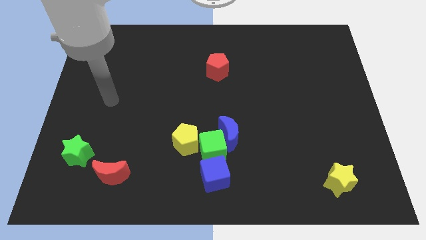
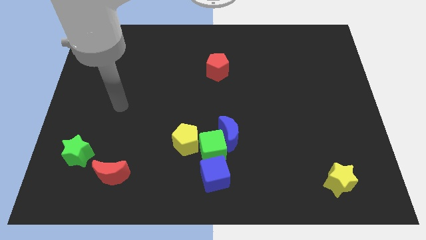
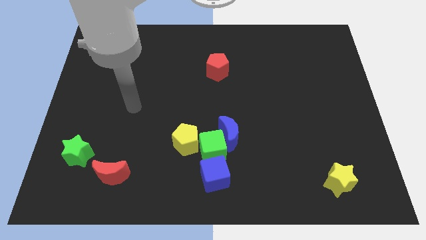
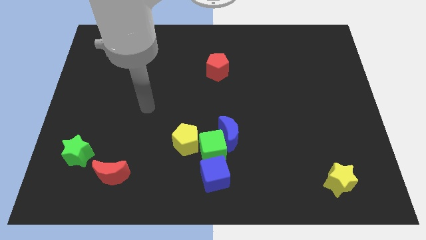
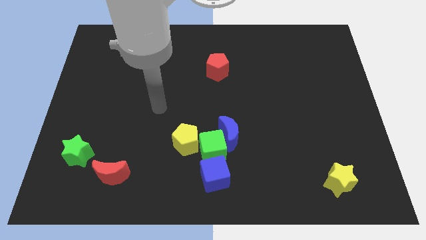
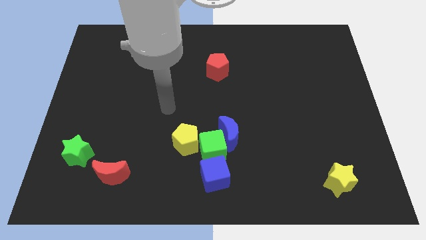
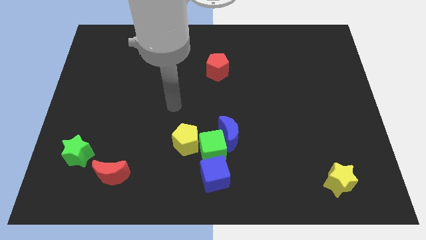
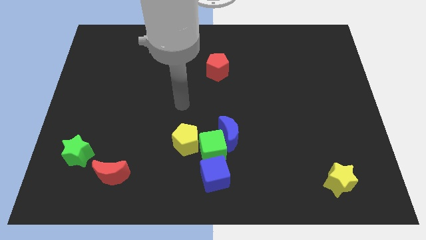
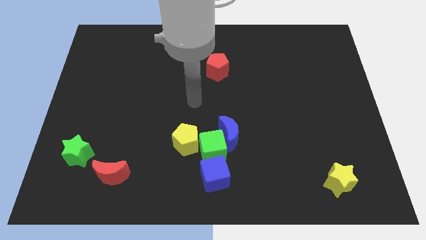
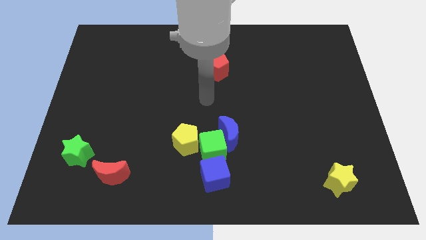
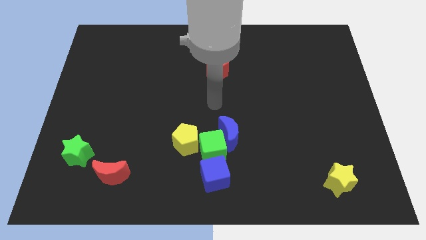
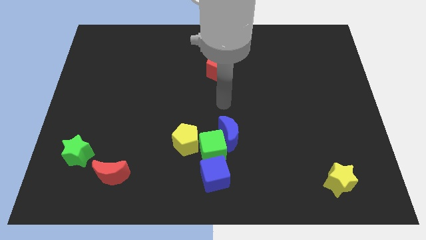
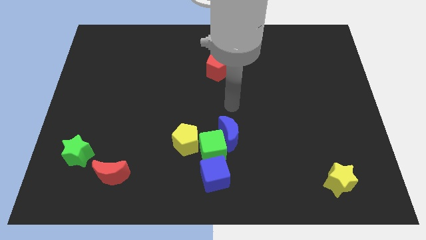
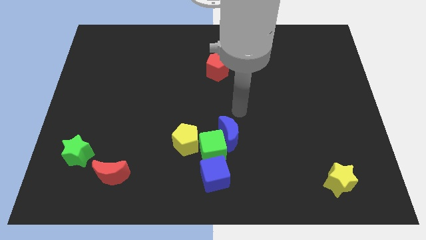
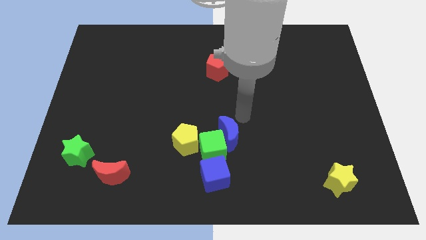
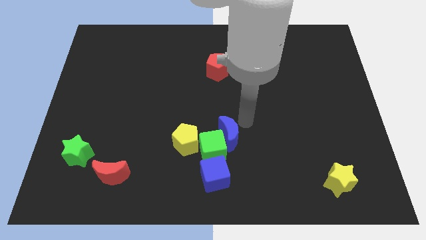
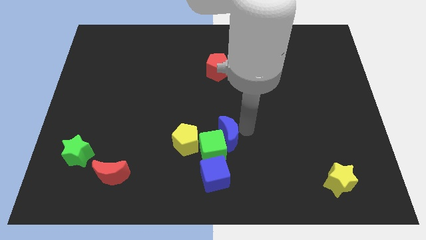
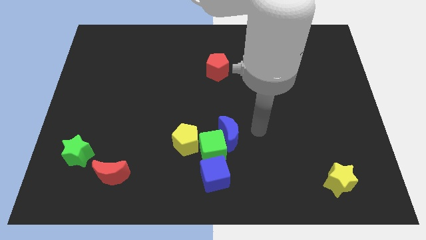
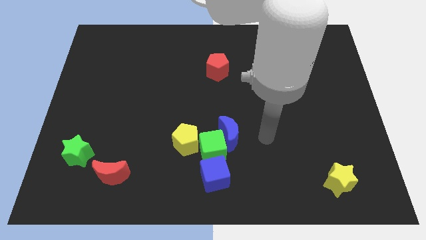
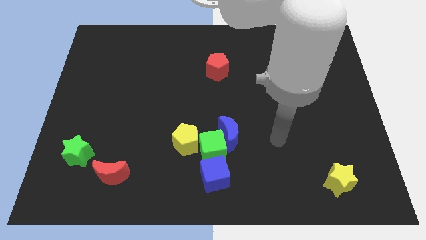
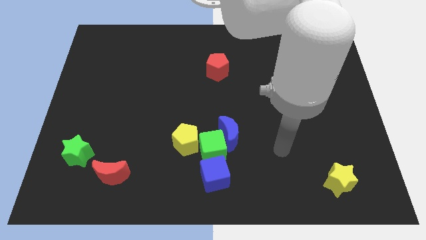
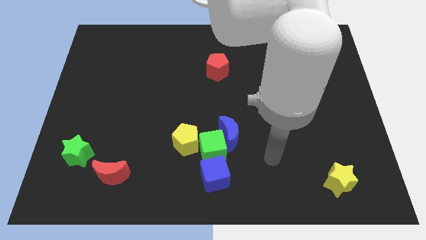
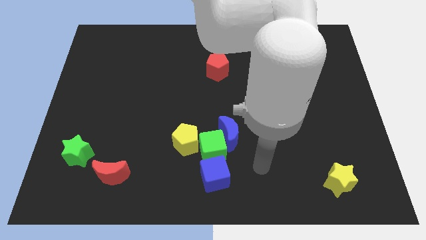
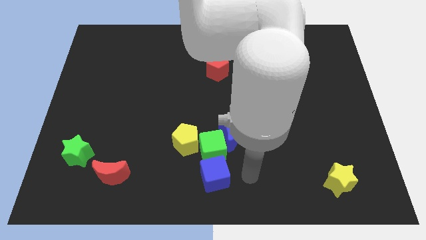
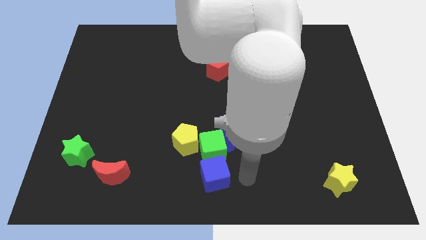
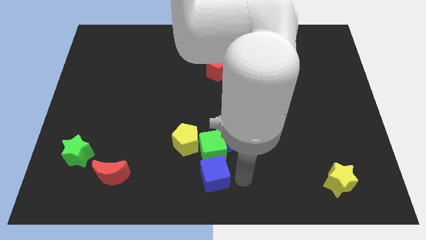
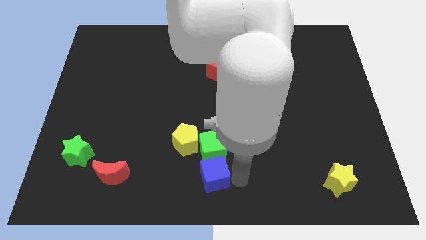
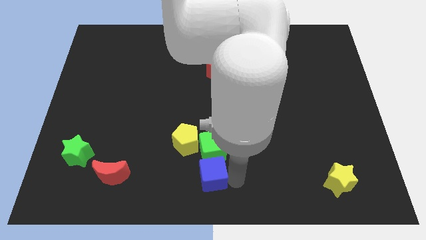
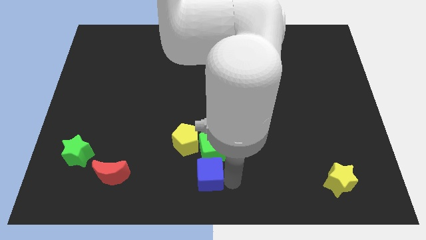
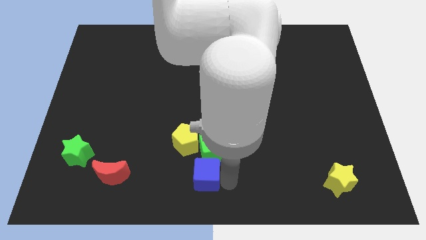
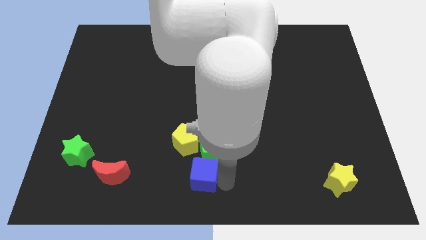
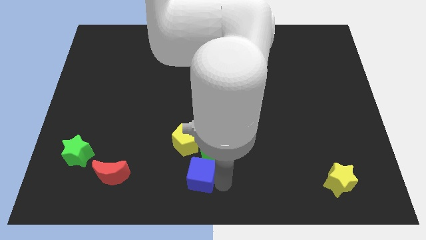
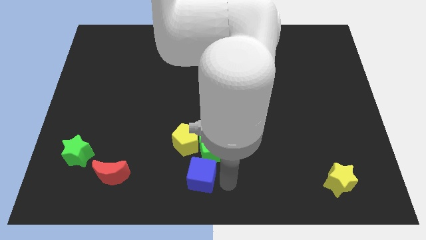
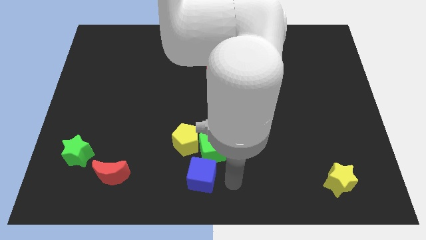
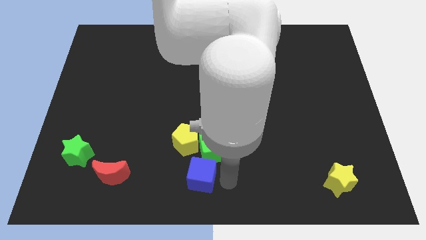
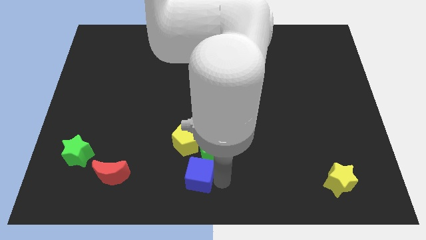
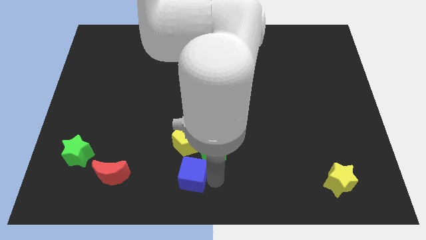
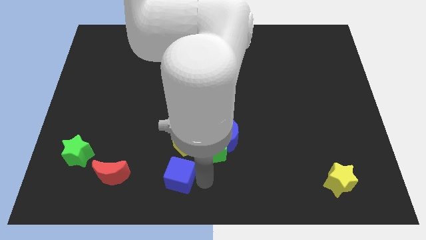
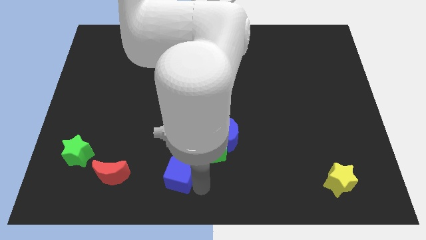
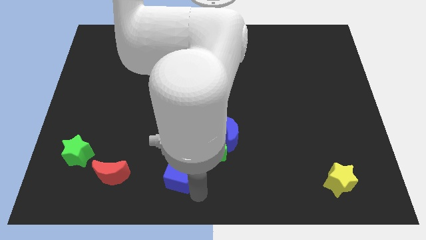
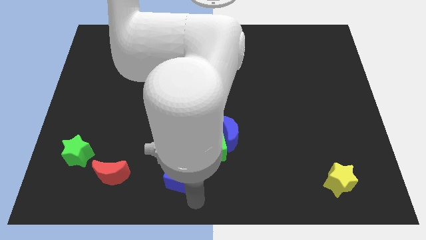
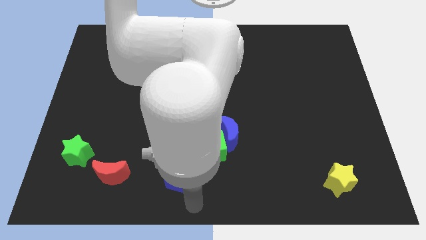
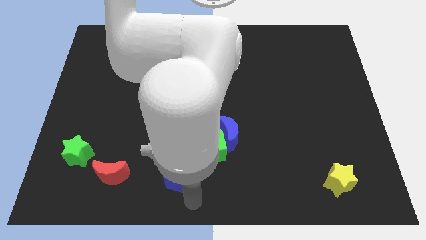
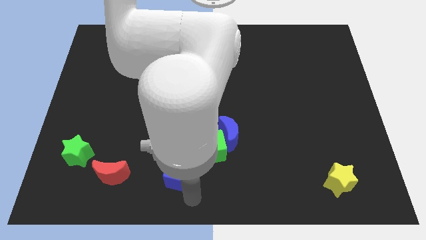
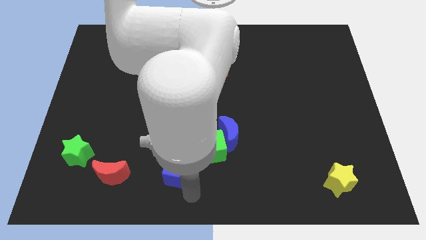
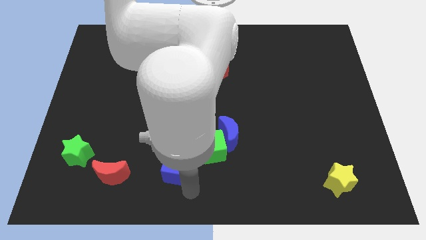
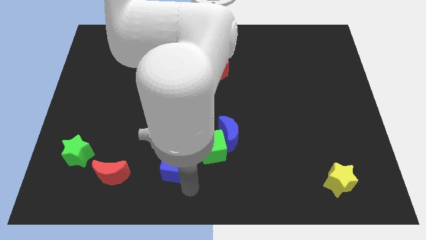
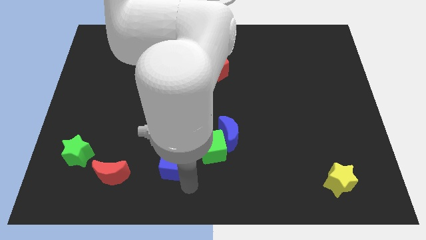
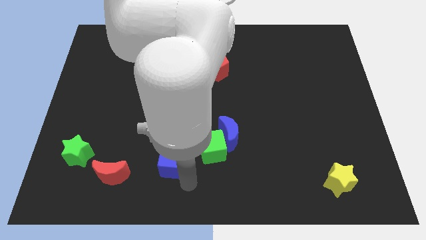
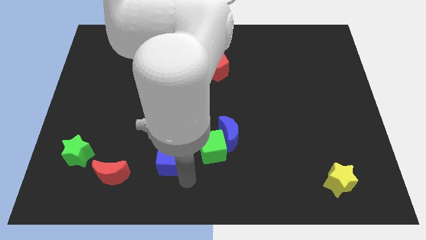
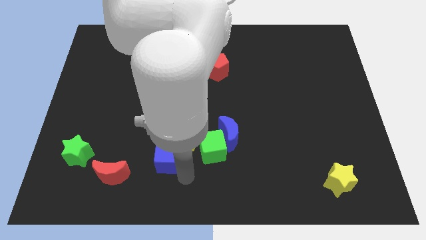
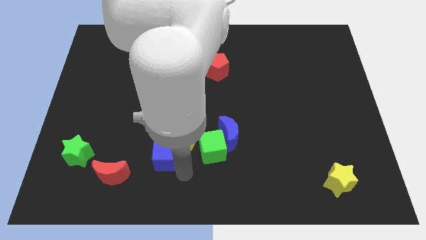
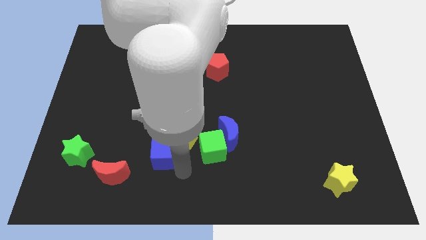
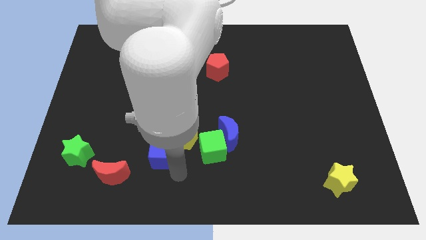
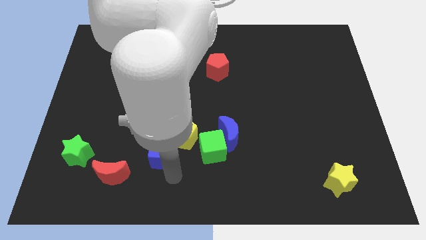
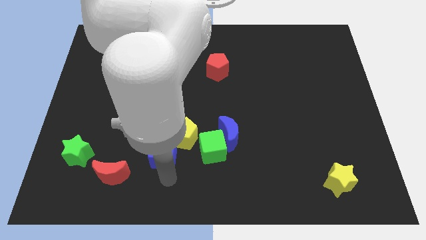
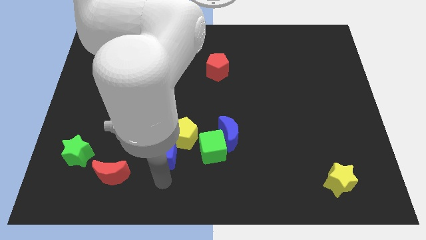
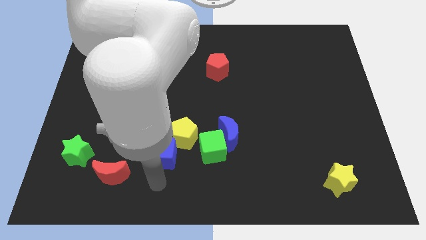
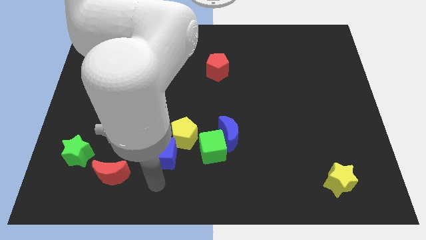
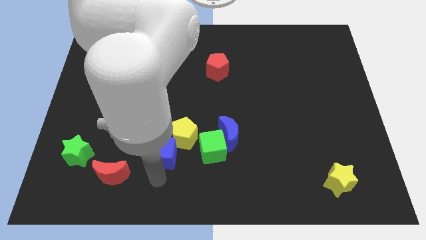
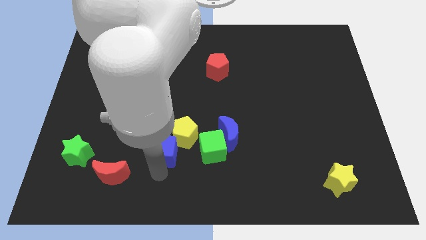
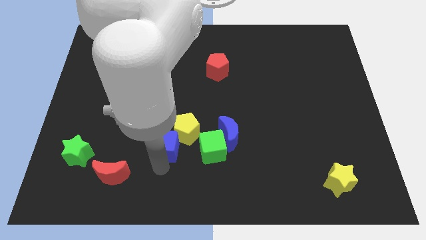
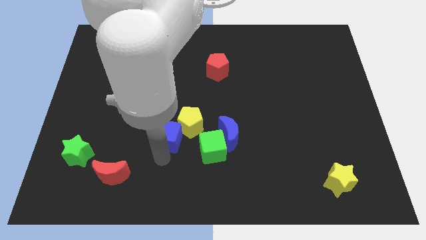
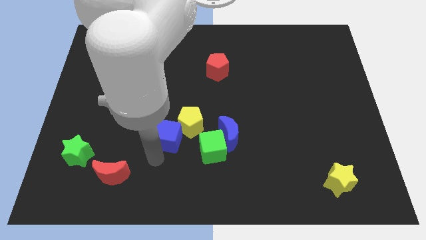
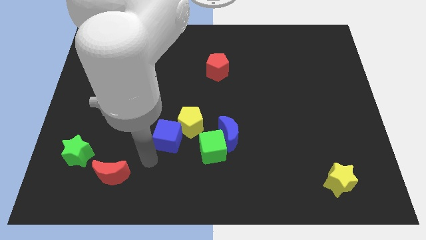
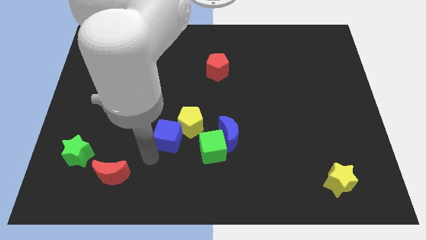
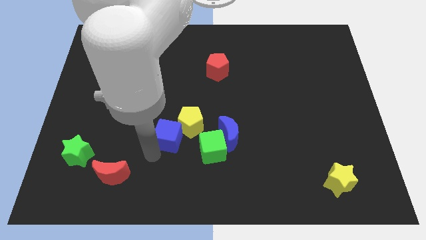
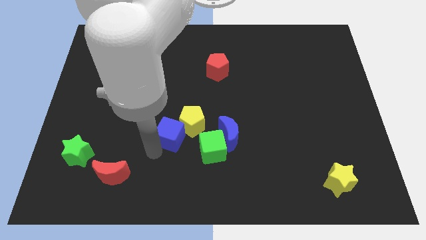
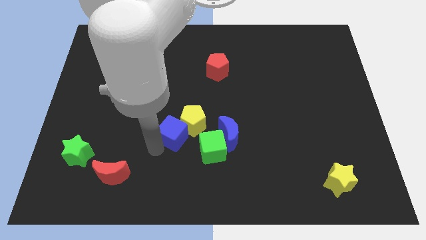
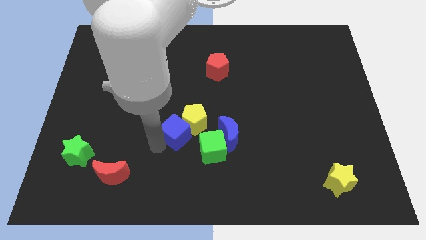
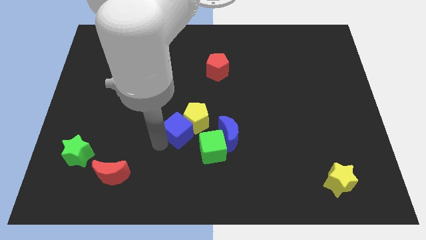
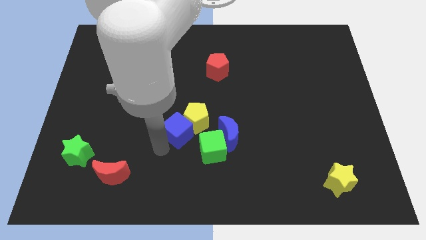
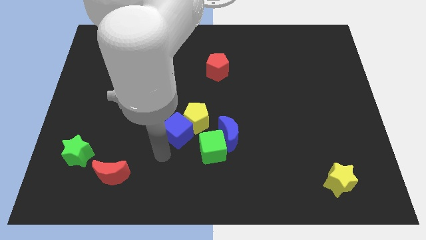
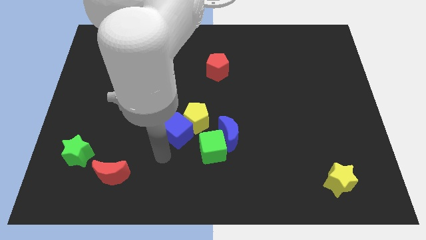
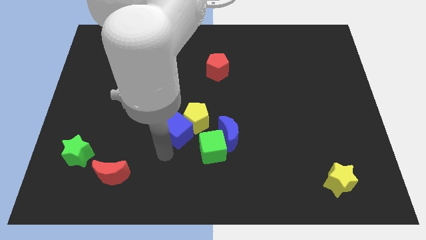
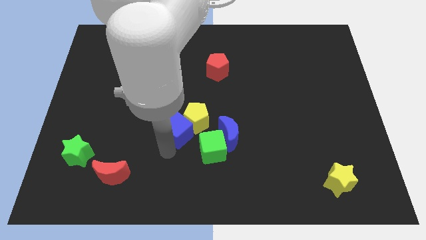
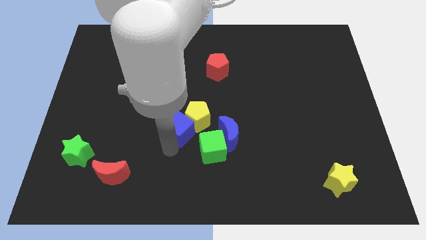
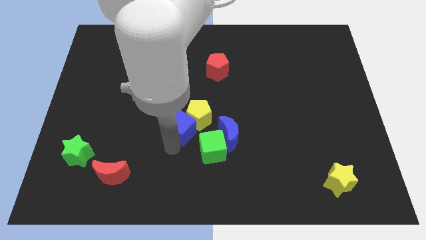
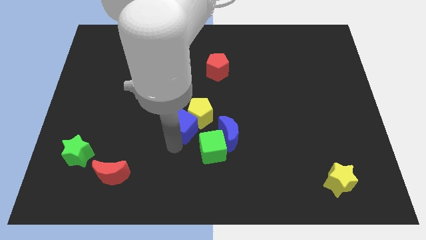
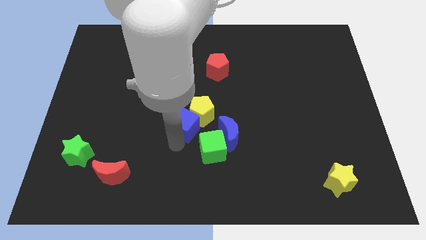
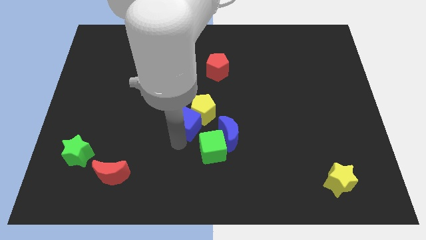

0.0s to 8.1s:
slide the blue cube to the top left side of the blue moon
